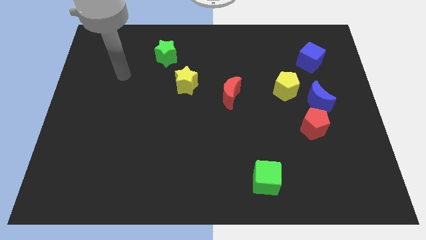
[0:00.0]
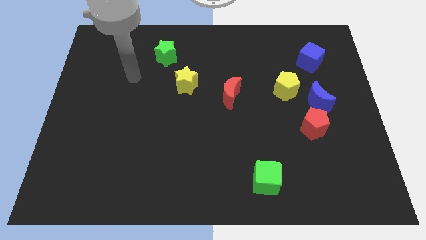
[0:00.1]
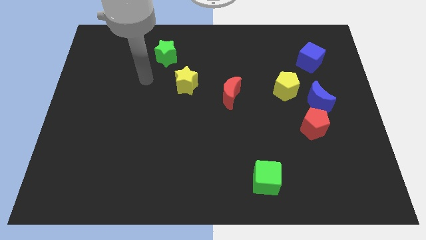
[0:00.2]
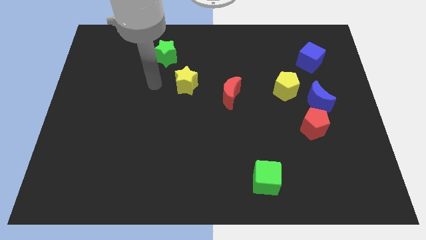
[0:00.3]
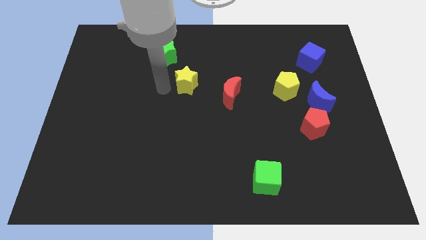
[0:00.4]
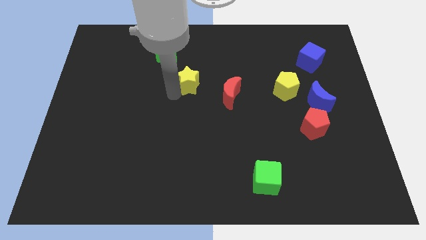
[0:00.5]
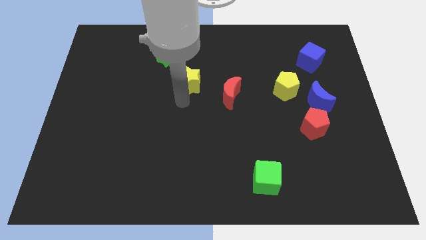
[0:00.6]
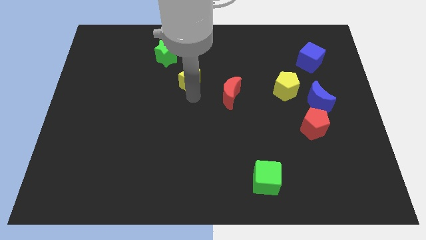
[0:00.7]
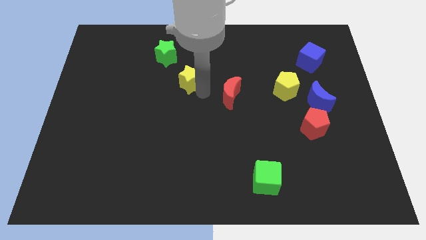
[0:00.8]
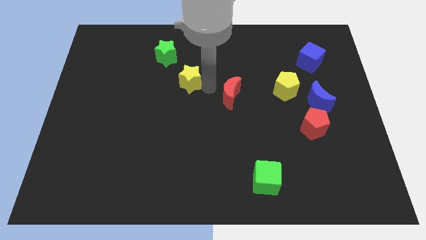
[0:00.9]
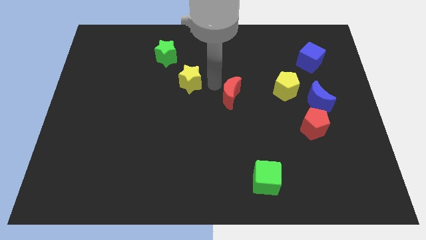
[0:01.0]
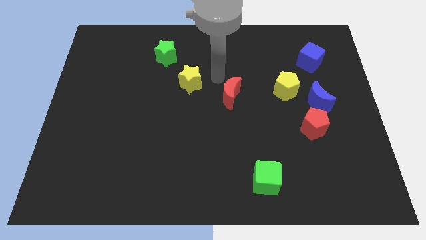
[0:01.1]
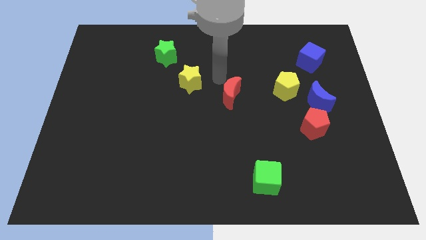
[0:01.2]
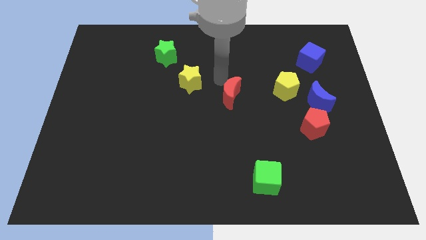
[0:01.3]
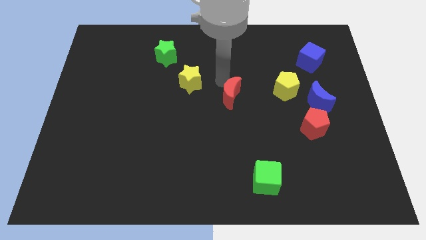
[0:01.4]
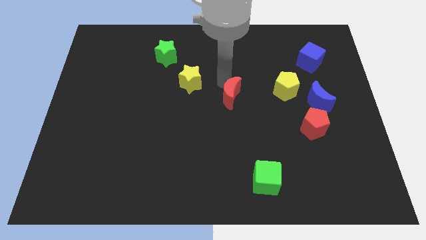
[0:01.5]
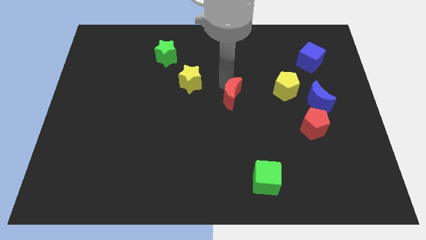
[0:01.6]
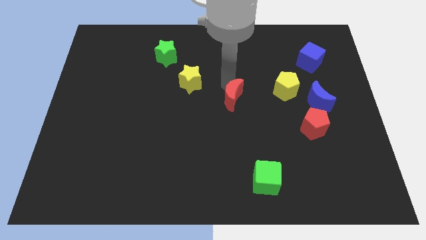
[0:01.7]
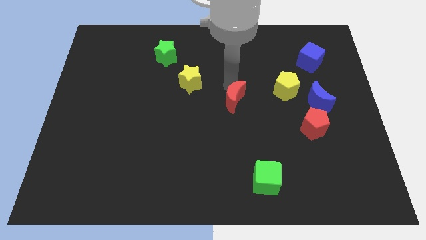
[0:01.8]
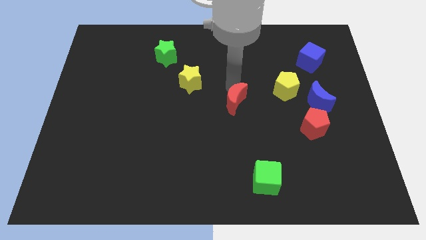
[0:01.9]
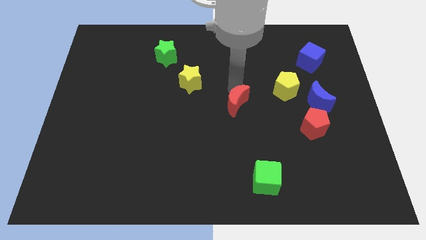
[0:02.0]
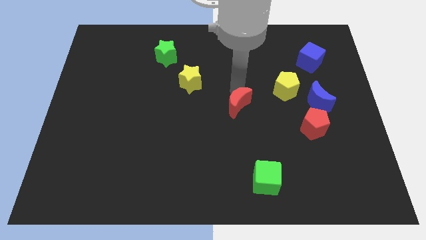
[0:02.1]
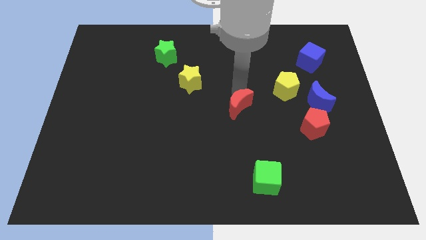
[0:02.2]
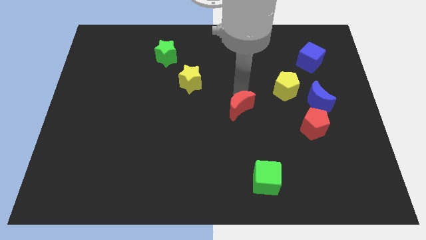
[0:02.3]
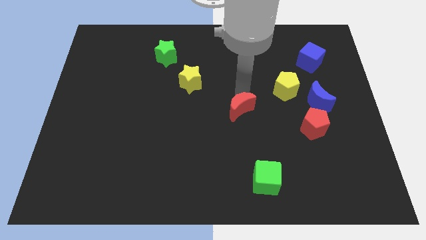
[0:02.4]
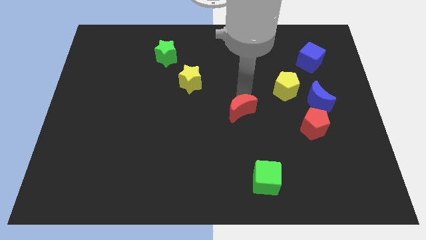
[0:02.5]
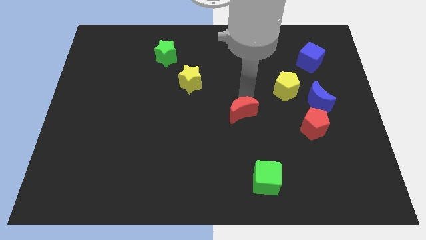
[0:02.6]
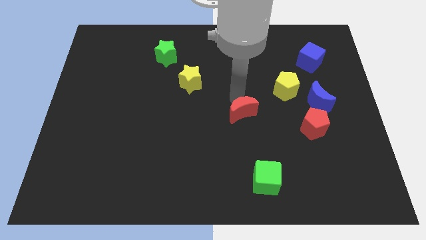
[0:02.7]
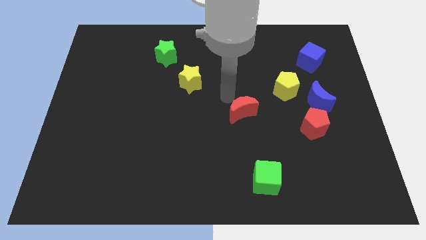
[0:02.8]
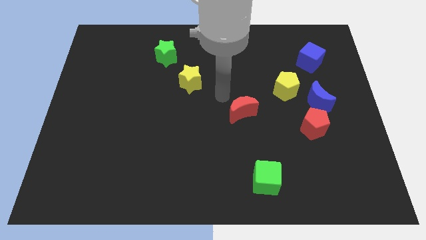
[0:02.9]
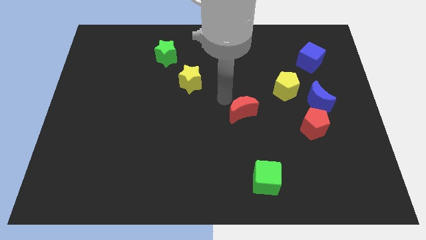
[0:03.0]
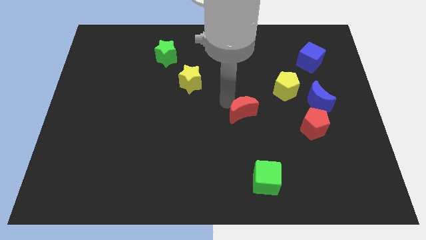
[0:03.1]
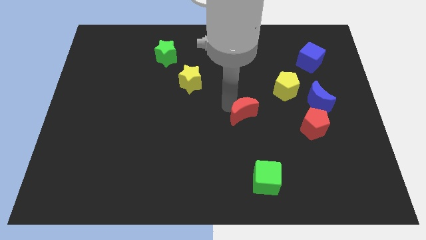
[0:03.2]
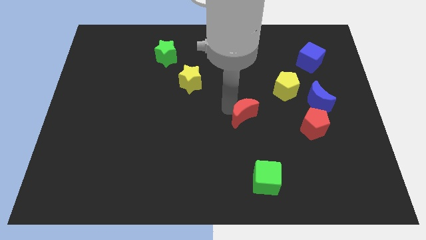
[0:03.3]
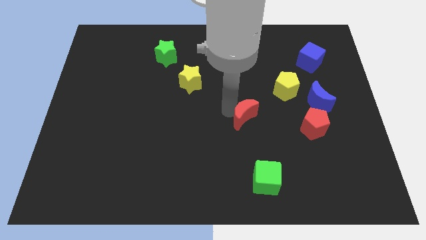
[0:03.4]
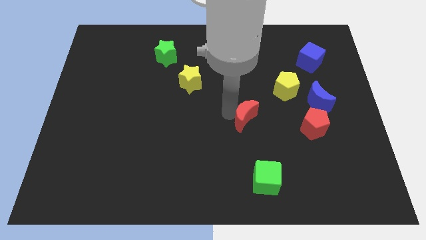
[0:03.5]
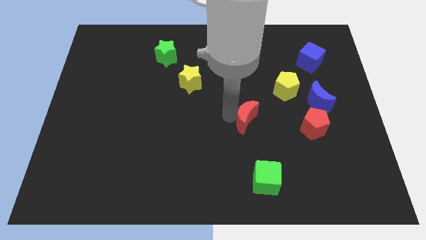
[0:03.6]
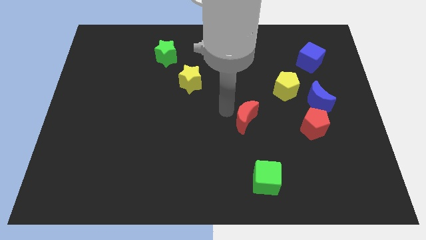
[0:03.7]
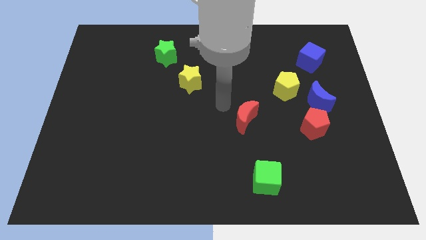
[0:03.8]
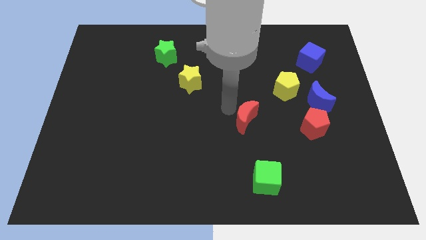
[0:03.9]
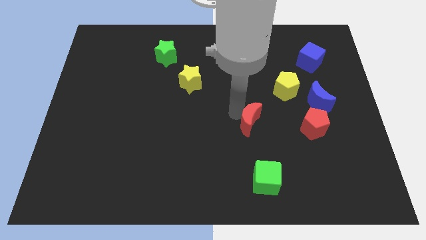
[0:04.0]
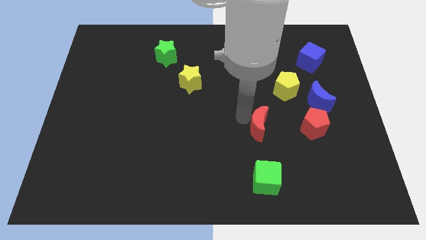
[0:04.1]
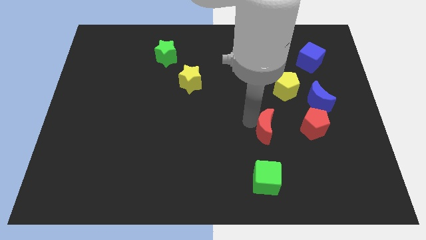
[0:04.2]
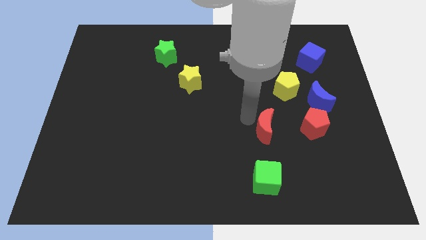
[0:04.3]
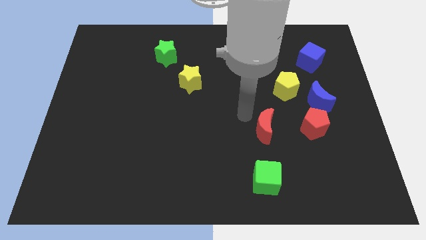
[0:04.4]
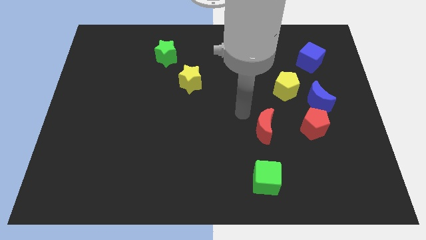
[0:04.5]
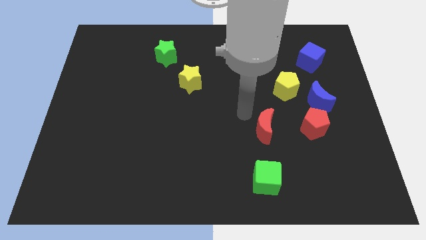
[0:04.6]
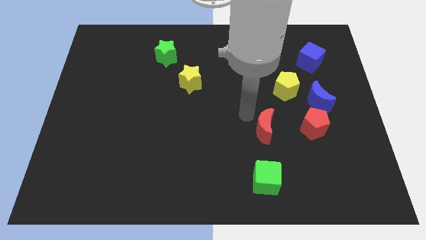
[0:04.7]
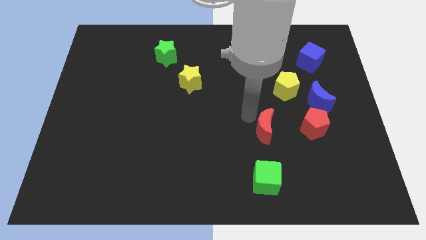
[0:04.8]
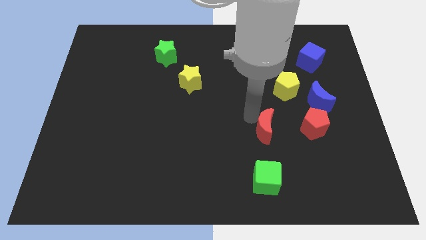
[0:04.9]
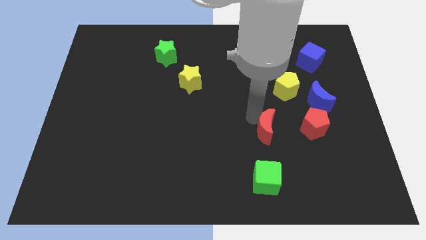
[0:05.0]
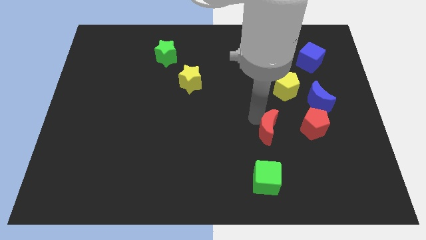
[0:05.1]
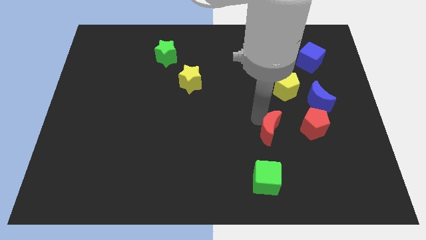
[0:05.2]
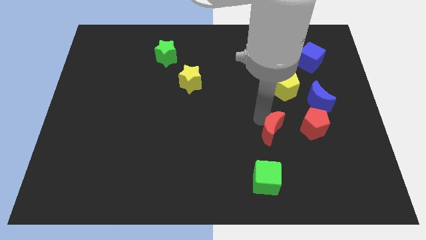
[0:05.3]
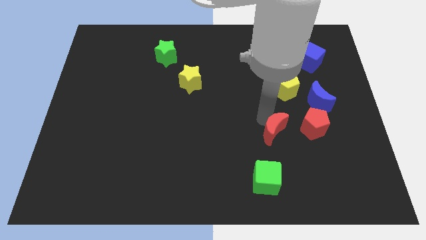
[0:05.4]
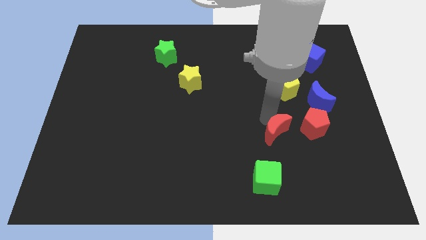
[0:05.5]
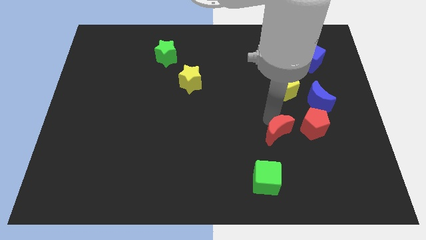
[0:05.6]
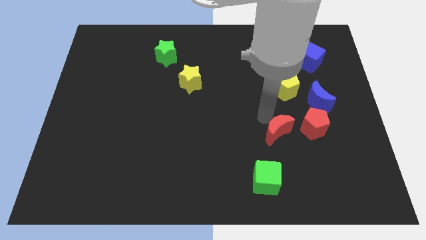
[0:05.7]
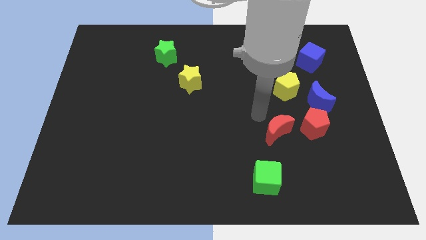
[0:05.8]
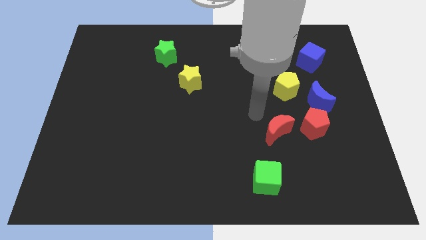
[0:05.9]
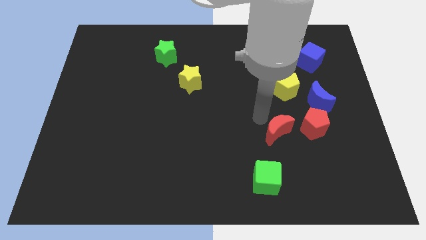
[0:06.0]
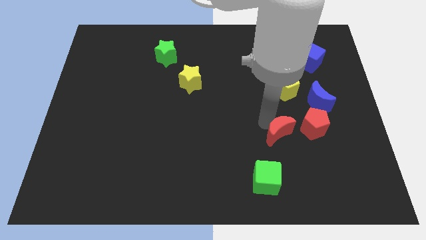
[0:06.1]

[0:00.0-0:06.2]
slide the red moon diagonally down and to the left of the red pentagon

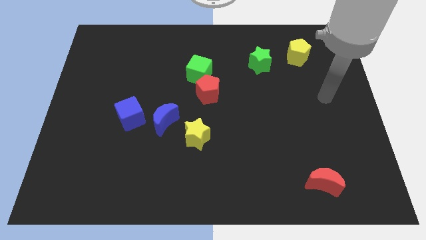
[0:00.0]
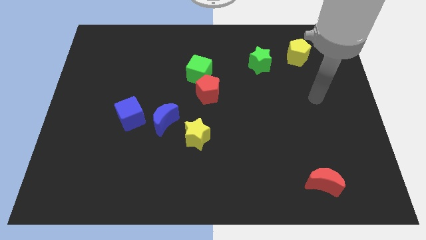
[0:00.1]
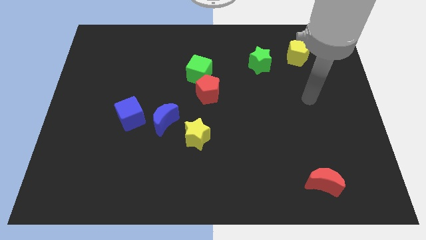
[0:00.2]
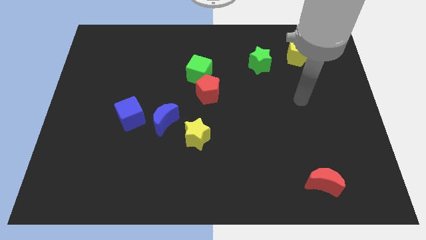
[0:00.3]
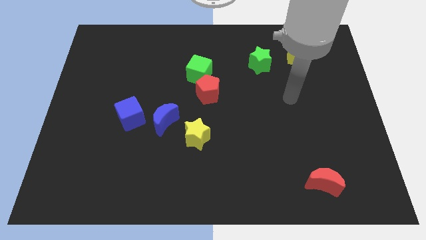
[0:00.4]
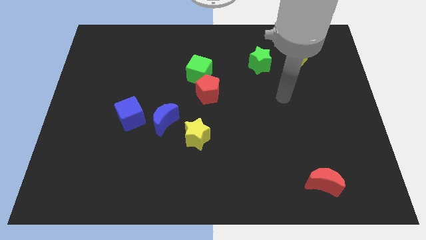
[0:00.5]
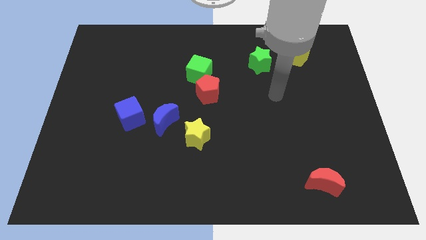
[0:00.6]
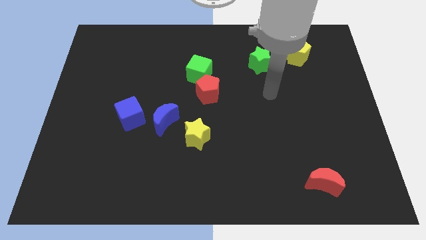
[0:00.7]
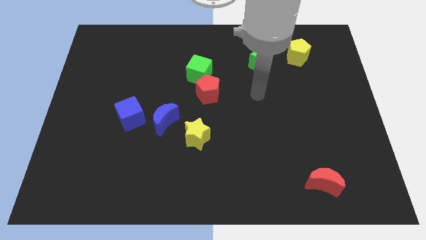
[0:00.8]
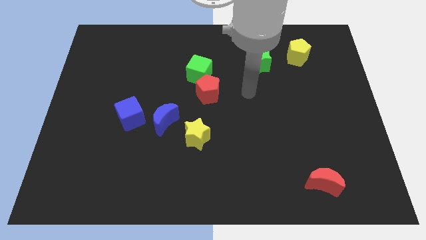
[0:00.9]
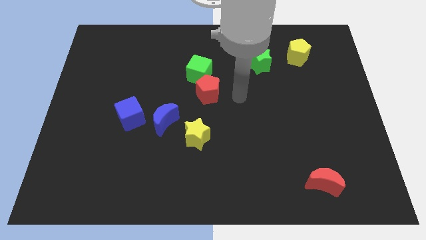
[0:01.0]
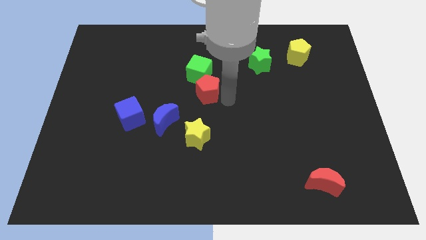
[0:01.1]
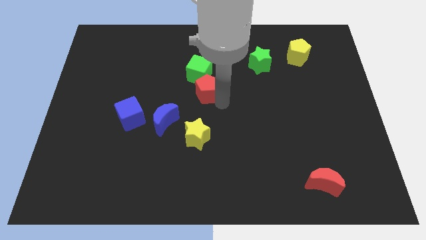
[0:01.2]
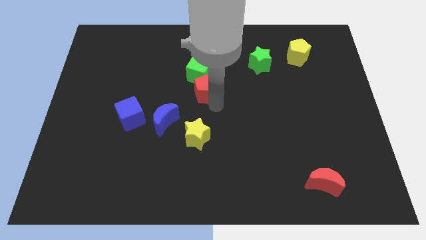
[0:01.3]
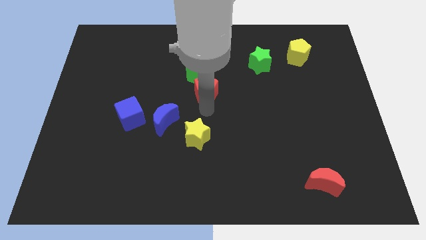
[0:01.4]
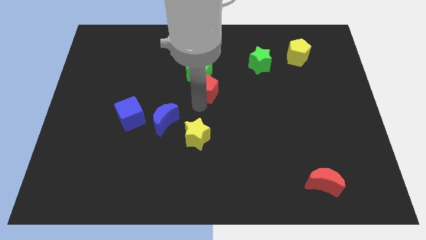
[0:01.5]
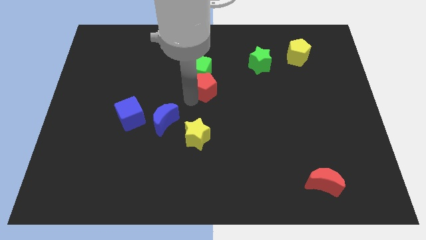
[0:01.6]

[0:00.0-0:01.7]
put the green cube to the top right side of the red pentagon
